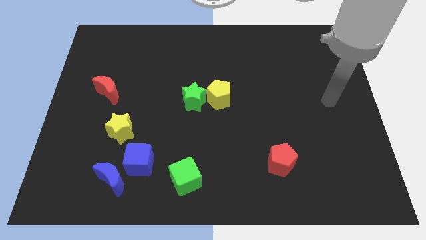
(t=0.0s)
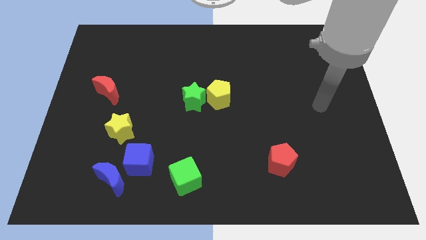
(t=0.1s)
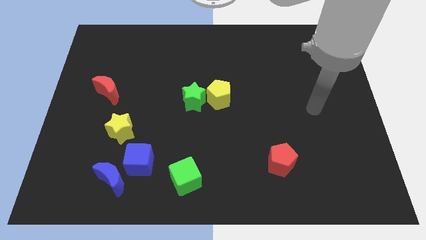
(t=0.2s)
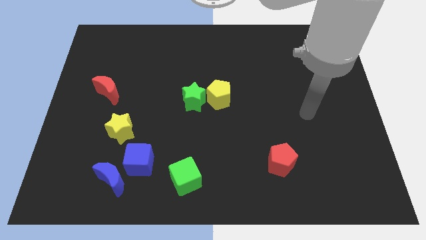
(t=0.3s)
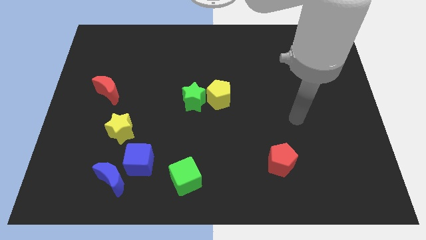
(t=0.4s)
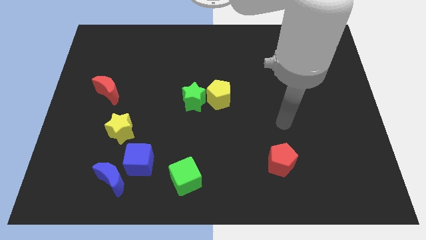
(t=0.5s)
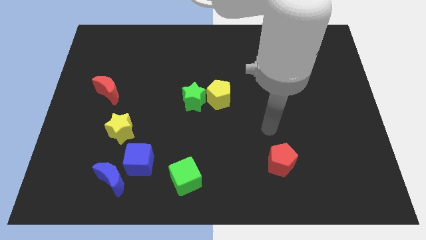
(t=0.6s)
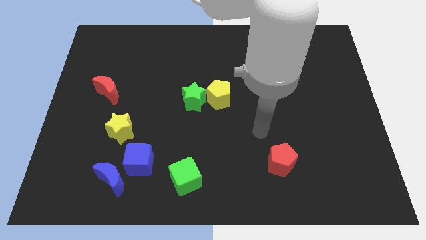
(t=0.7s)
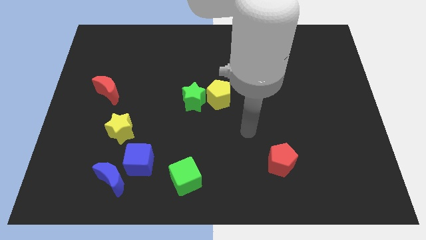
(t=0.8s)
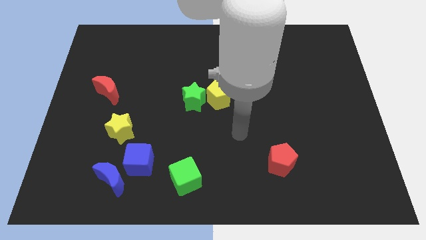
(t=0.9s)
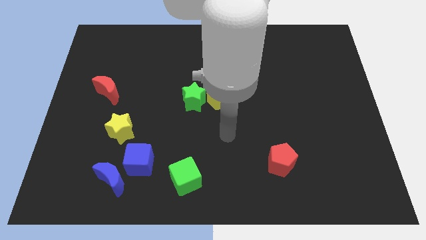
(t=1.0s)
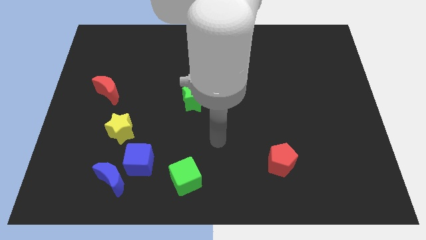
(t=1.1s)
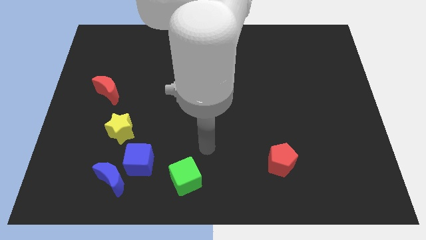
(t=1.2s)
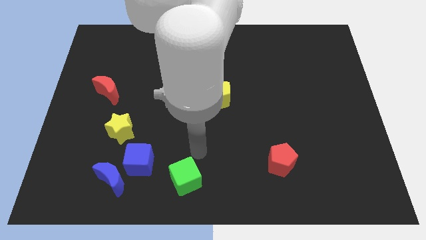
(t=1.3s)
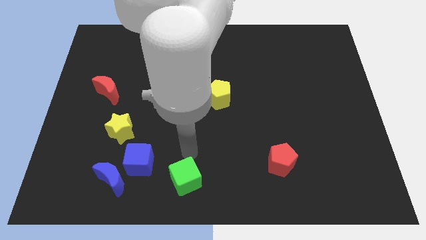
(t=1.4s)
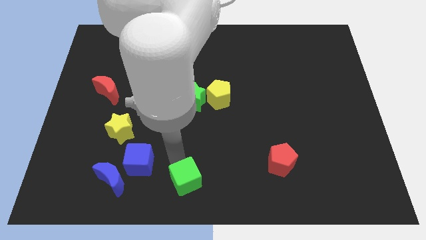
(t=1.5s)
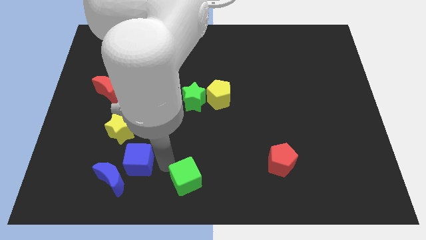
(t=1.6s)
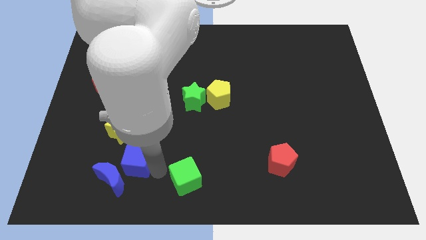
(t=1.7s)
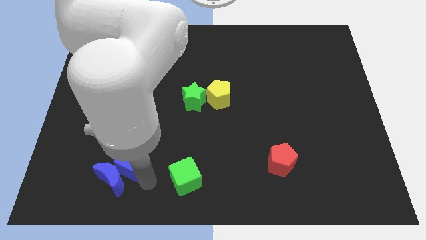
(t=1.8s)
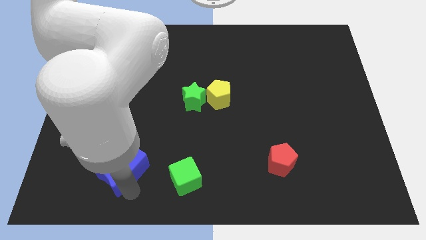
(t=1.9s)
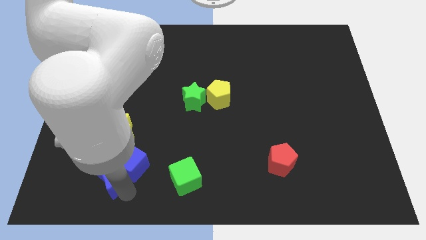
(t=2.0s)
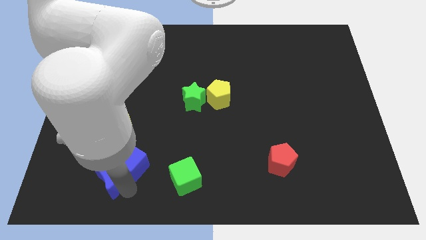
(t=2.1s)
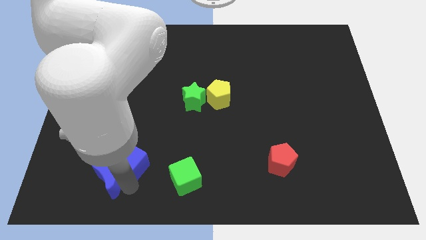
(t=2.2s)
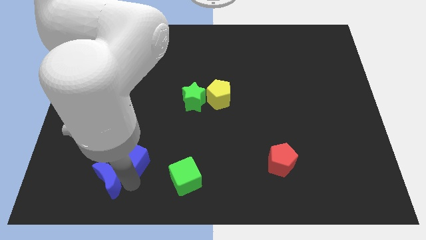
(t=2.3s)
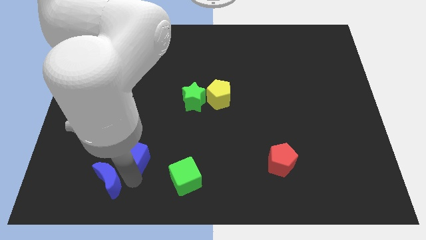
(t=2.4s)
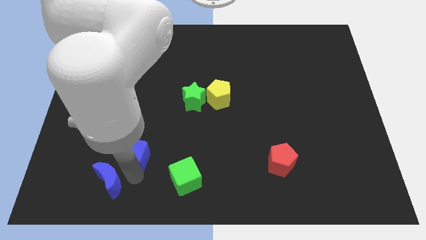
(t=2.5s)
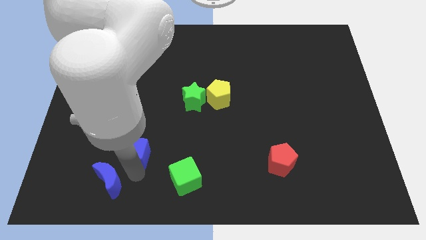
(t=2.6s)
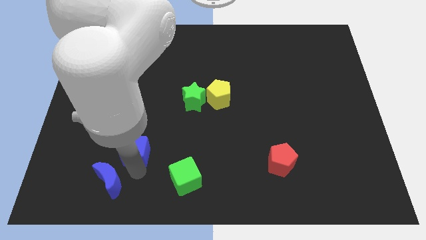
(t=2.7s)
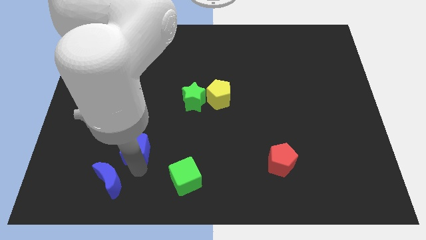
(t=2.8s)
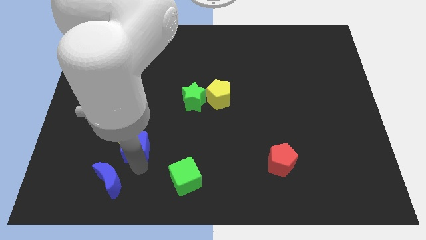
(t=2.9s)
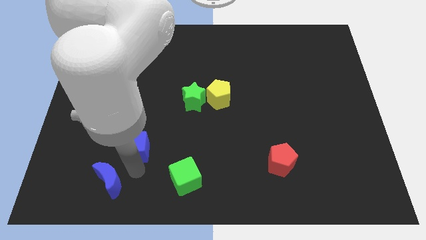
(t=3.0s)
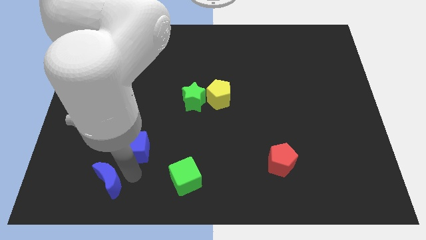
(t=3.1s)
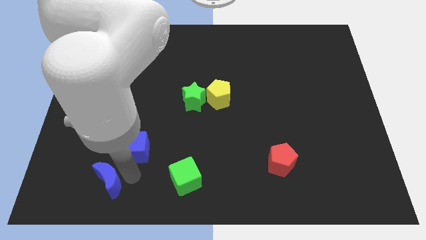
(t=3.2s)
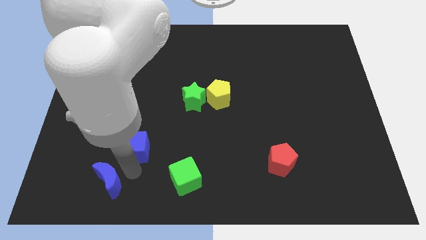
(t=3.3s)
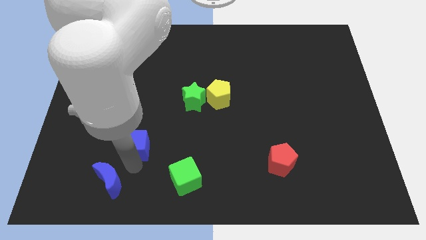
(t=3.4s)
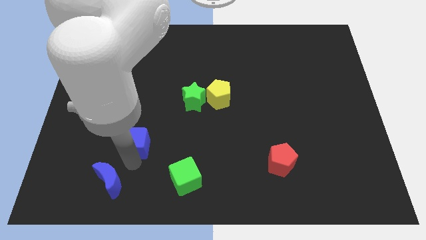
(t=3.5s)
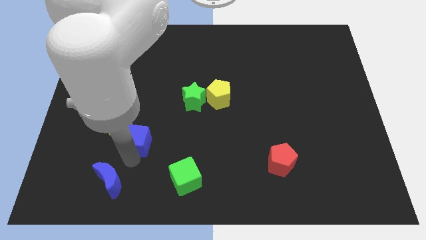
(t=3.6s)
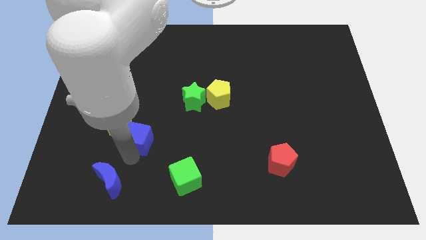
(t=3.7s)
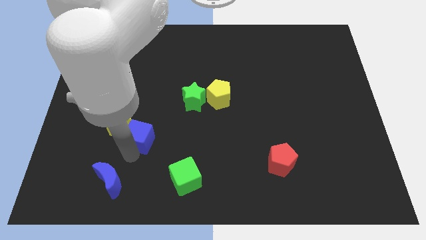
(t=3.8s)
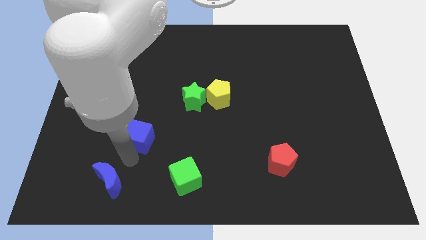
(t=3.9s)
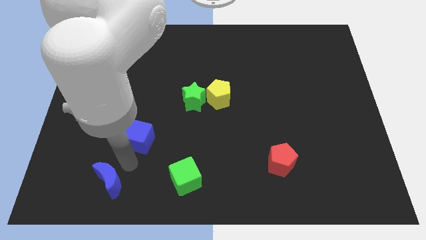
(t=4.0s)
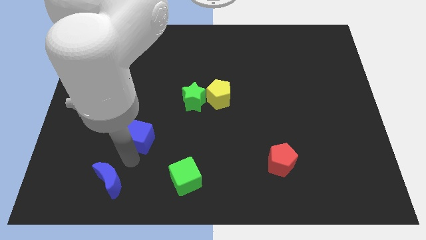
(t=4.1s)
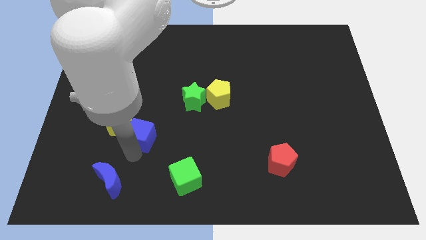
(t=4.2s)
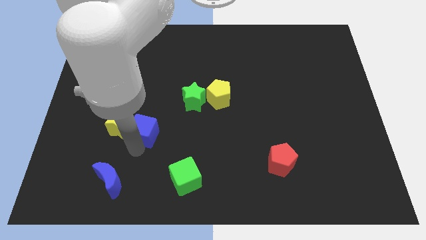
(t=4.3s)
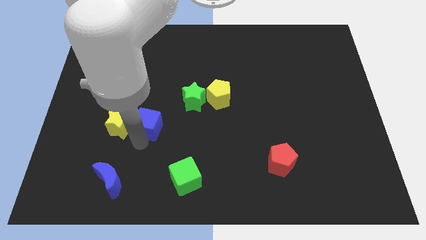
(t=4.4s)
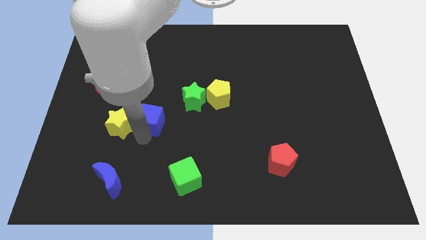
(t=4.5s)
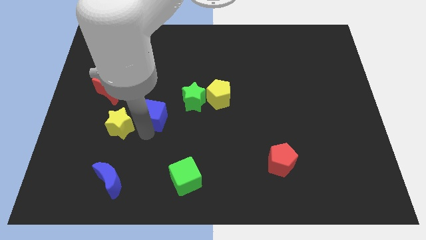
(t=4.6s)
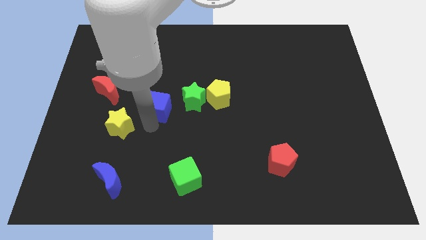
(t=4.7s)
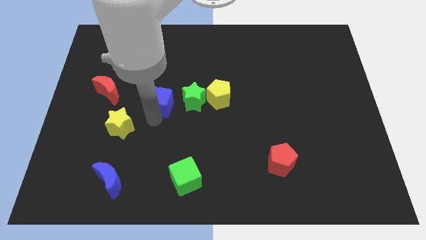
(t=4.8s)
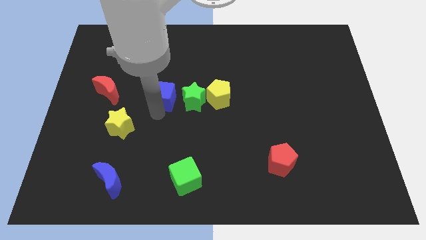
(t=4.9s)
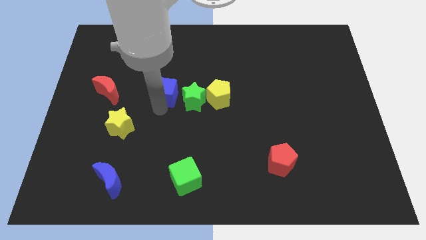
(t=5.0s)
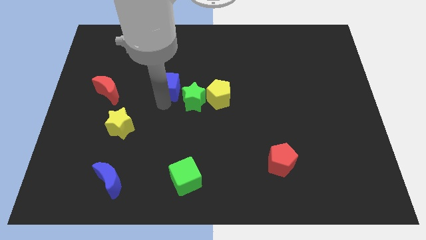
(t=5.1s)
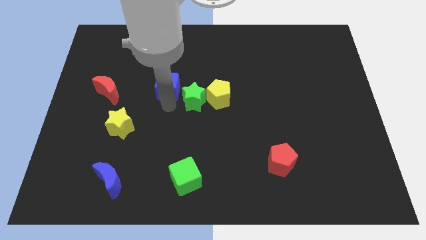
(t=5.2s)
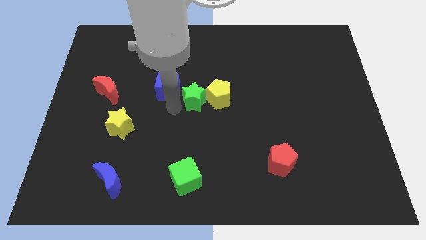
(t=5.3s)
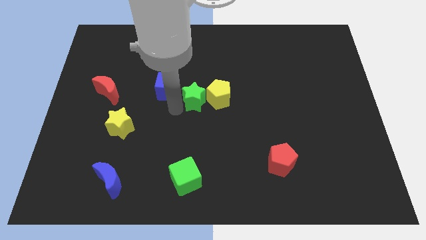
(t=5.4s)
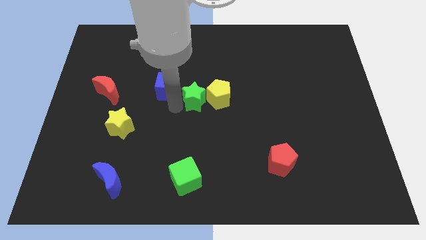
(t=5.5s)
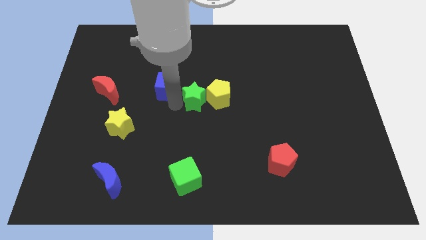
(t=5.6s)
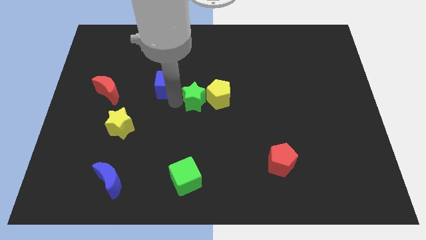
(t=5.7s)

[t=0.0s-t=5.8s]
move the blue cube upwards

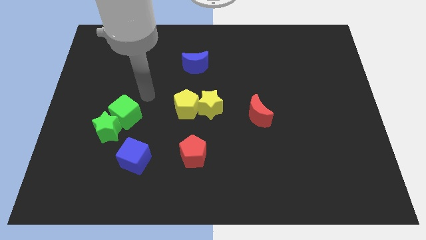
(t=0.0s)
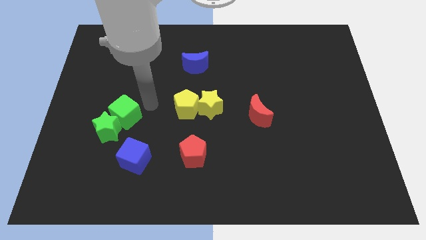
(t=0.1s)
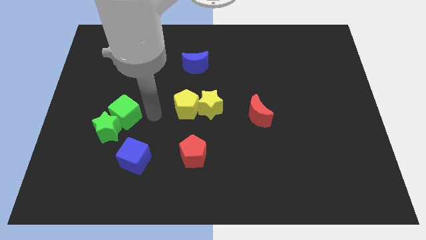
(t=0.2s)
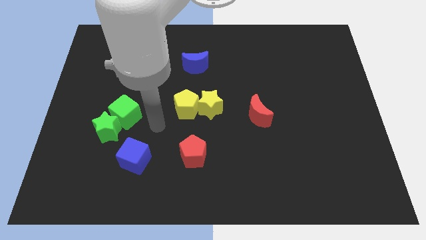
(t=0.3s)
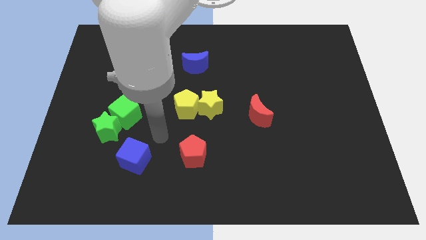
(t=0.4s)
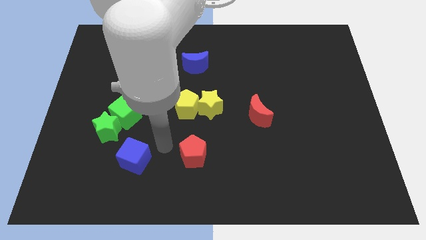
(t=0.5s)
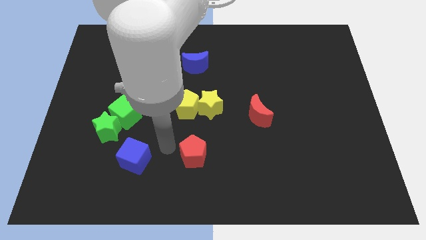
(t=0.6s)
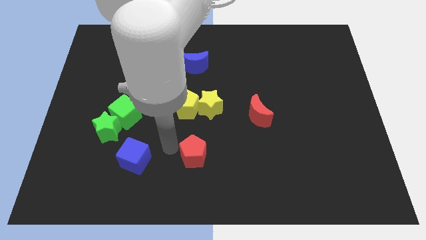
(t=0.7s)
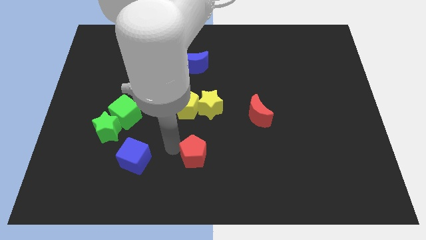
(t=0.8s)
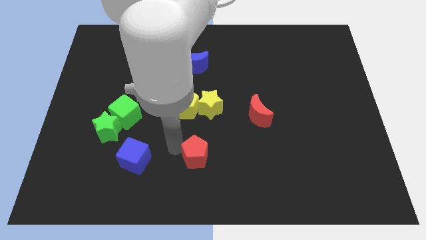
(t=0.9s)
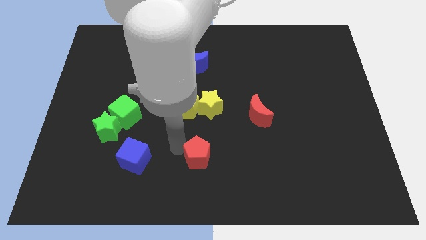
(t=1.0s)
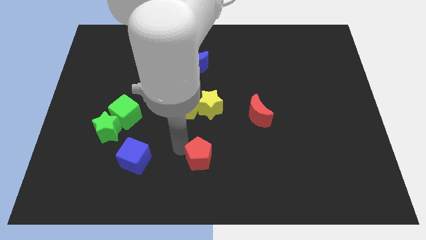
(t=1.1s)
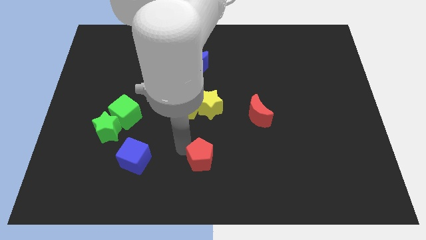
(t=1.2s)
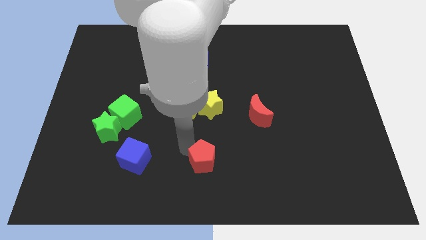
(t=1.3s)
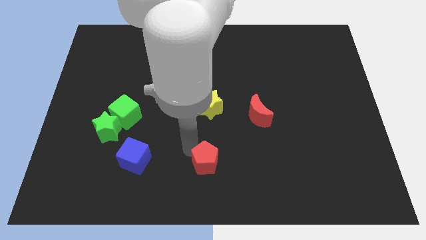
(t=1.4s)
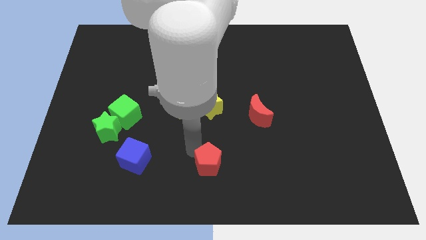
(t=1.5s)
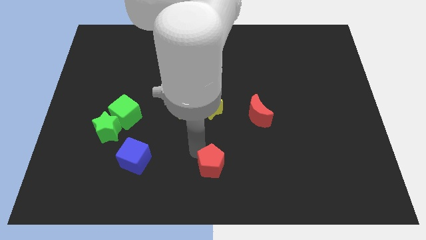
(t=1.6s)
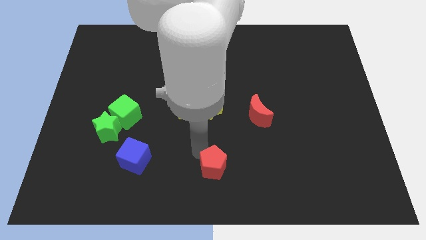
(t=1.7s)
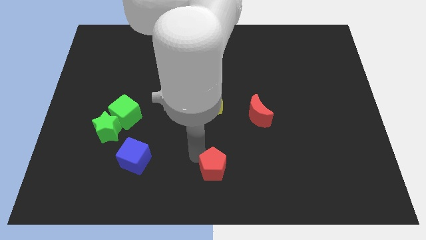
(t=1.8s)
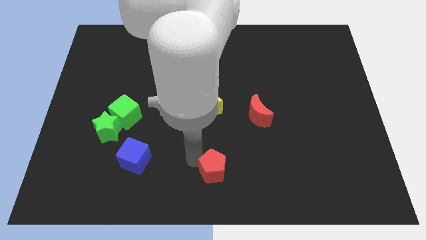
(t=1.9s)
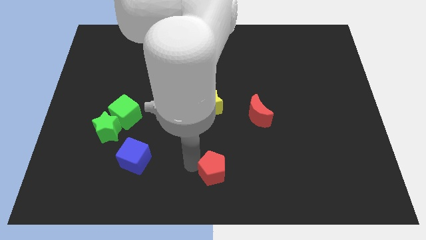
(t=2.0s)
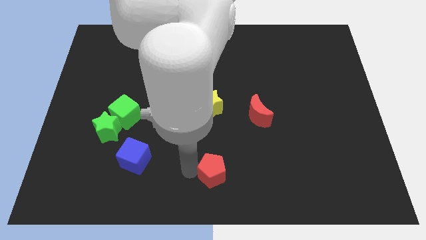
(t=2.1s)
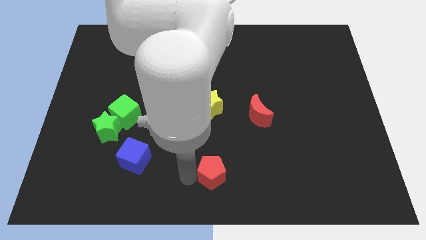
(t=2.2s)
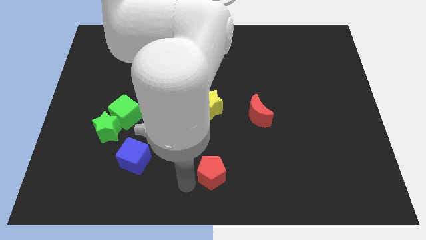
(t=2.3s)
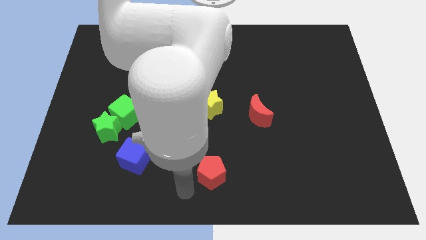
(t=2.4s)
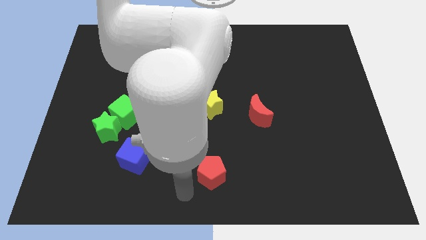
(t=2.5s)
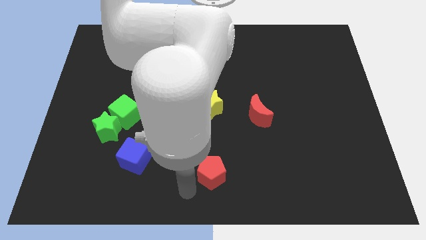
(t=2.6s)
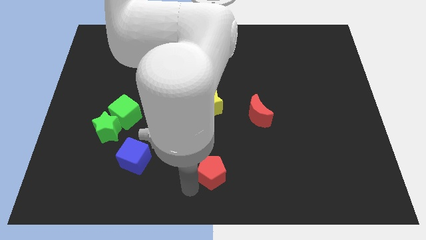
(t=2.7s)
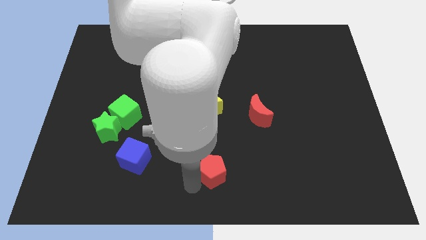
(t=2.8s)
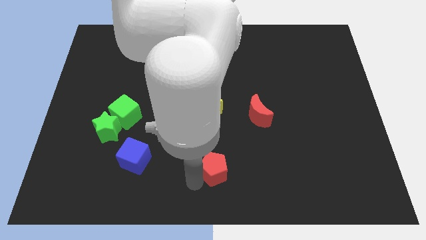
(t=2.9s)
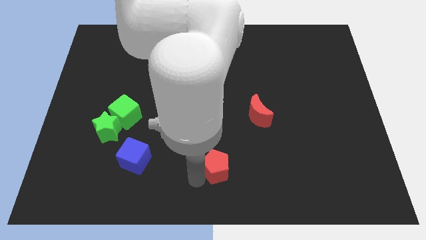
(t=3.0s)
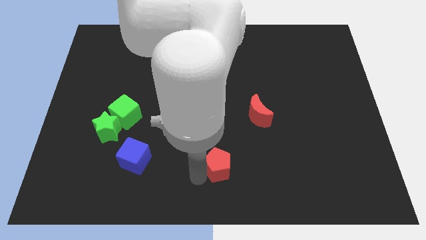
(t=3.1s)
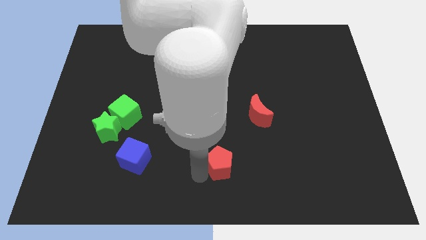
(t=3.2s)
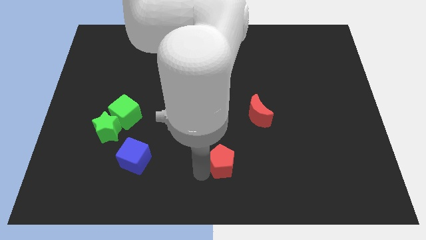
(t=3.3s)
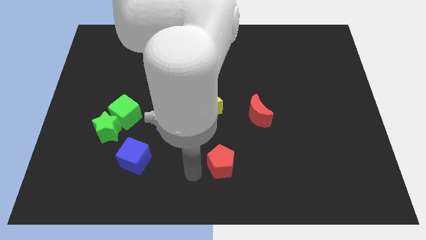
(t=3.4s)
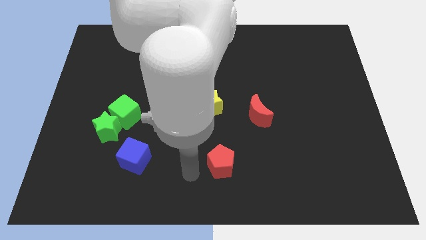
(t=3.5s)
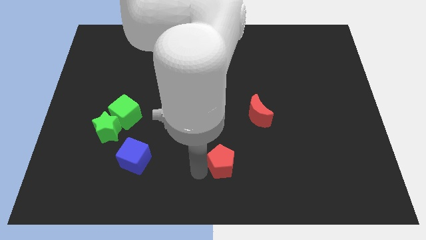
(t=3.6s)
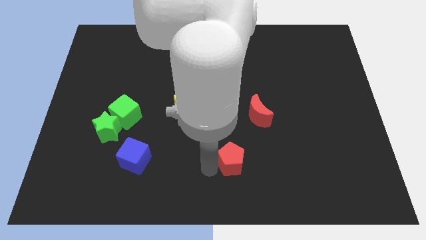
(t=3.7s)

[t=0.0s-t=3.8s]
slightly push the red pentagon to the right
